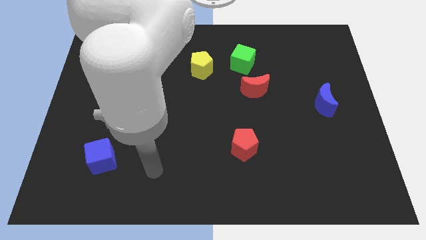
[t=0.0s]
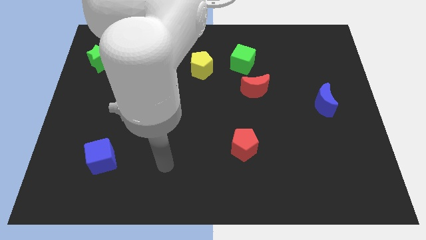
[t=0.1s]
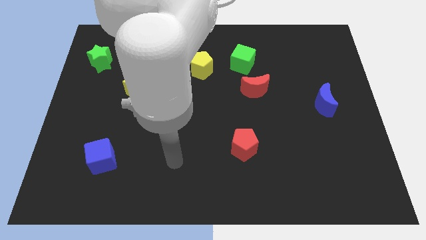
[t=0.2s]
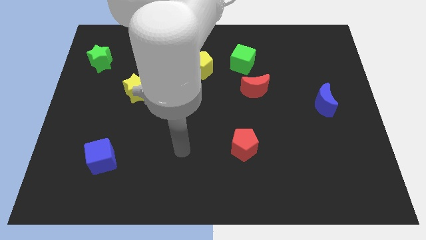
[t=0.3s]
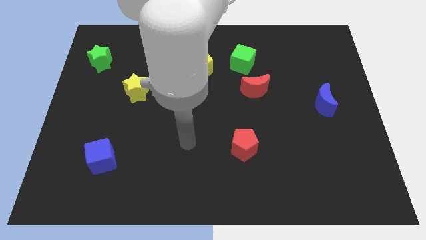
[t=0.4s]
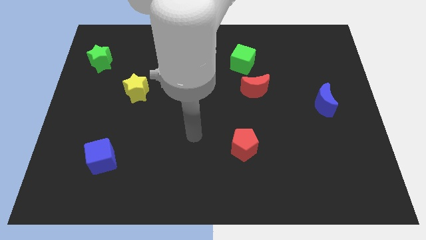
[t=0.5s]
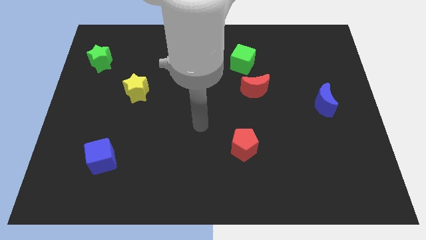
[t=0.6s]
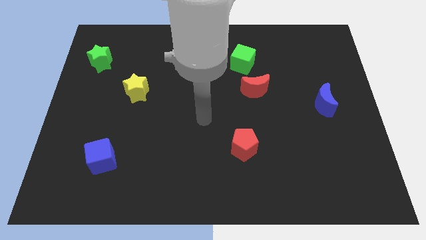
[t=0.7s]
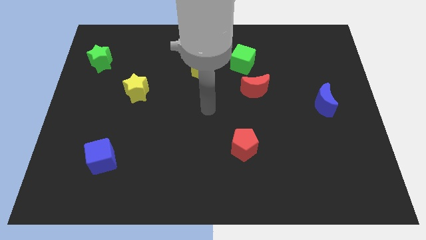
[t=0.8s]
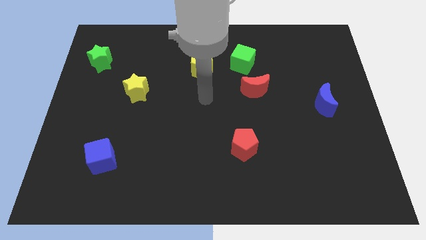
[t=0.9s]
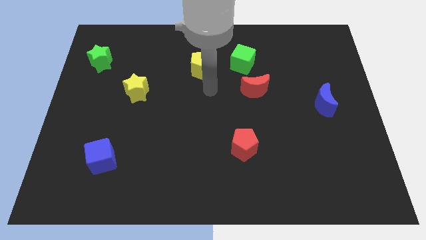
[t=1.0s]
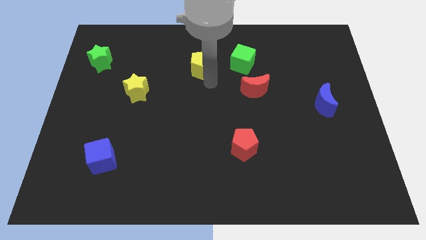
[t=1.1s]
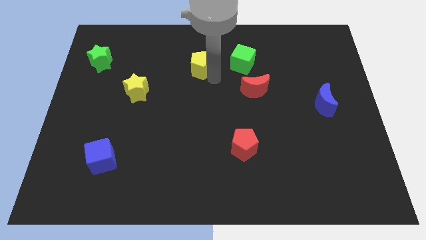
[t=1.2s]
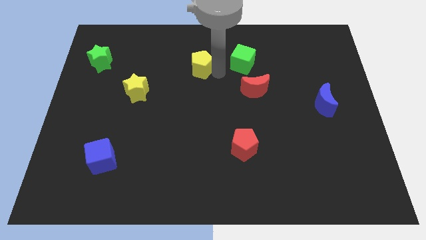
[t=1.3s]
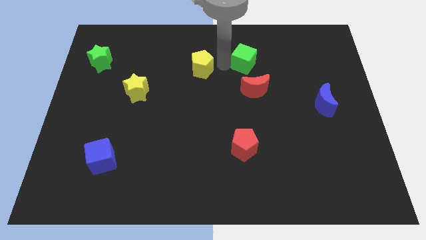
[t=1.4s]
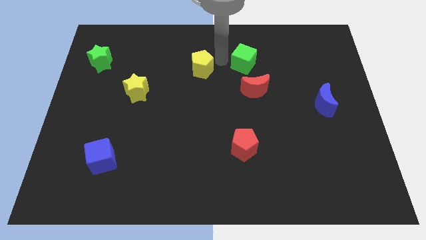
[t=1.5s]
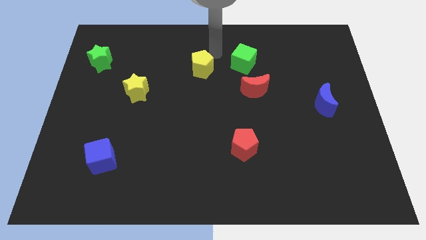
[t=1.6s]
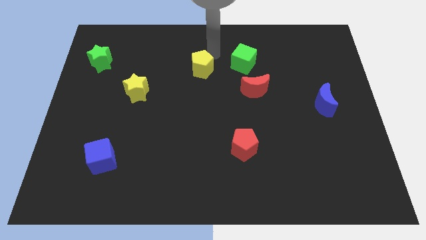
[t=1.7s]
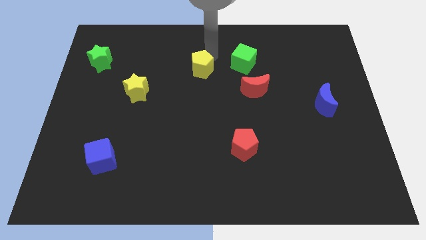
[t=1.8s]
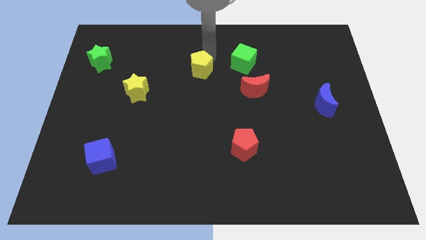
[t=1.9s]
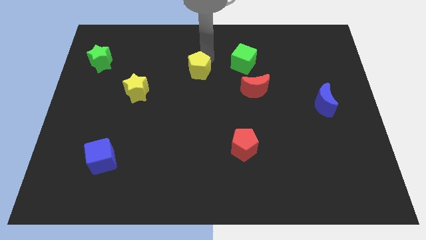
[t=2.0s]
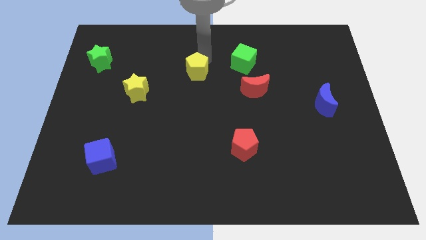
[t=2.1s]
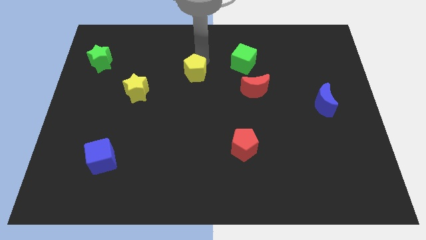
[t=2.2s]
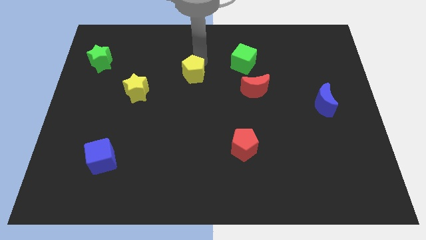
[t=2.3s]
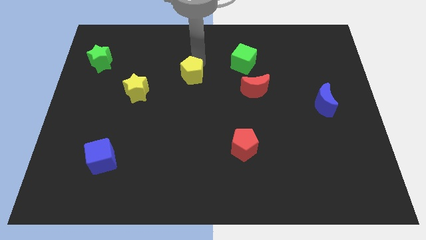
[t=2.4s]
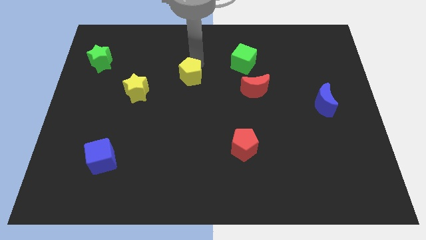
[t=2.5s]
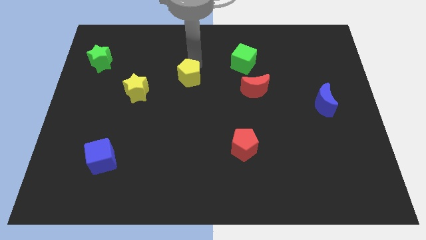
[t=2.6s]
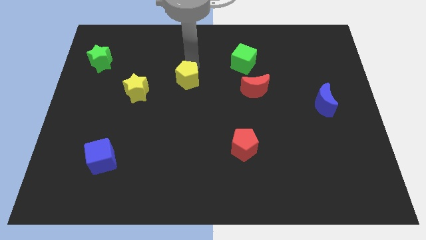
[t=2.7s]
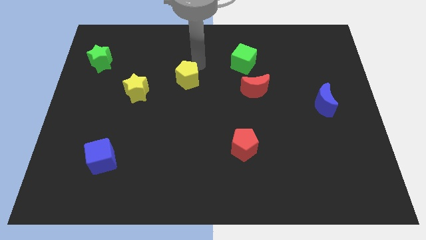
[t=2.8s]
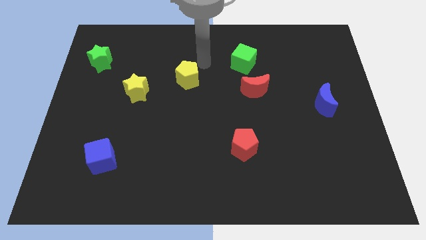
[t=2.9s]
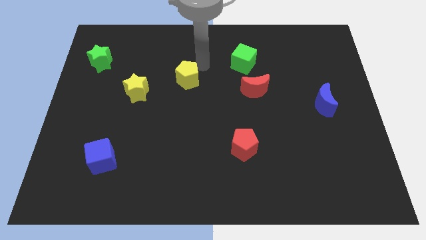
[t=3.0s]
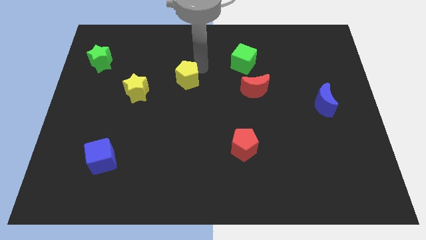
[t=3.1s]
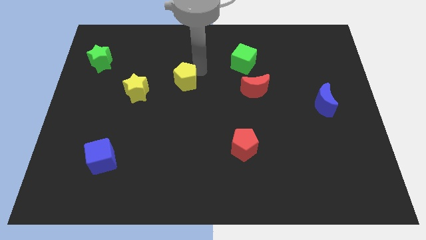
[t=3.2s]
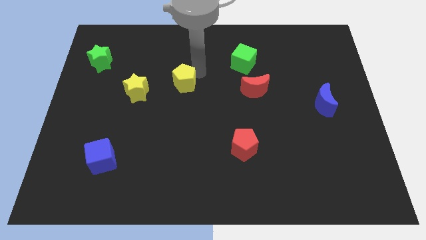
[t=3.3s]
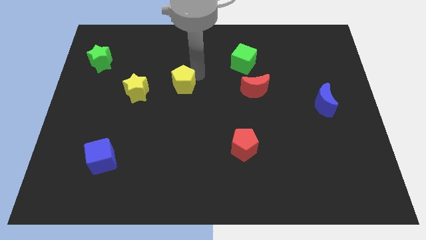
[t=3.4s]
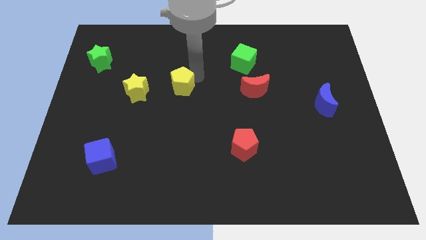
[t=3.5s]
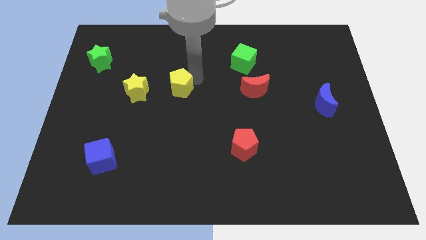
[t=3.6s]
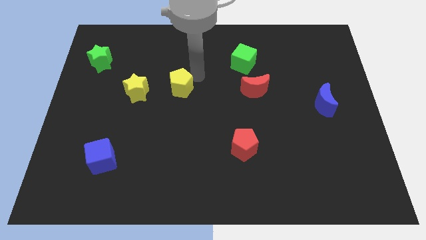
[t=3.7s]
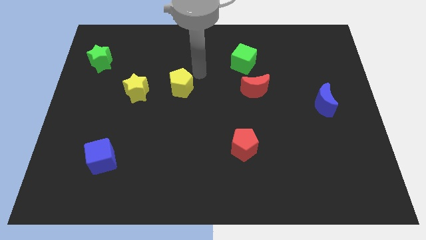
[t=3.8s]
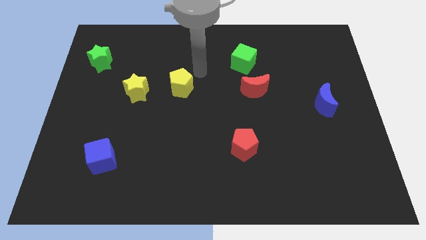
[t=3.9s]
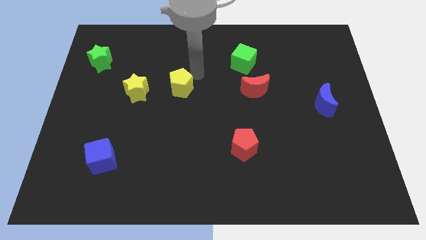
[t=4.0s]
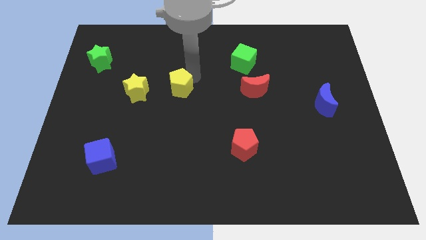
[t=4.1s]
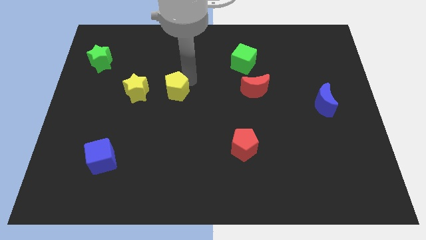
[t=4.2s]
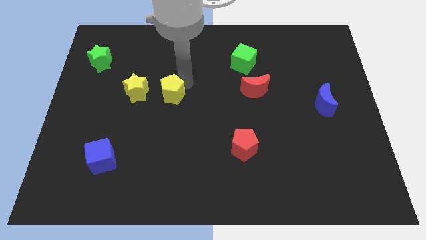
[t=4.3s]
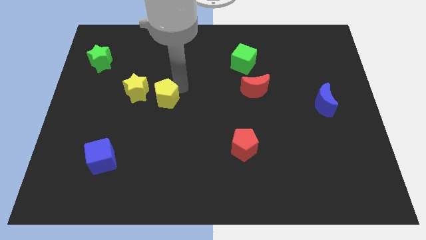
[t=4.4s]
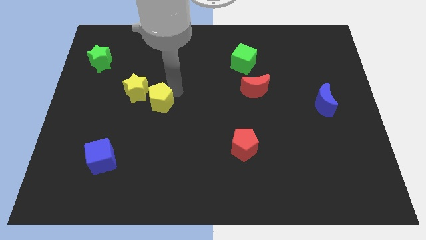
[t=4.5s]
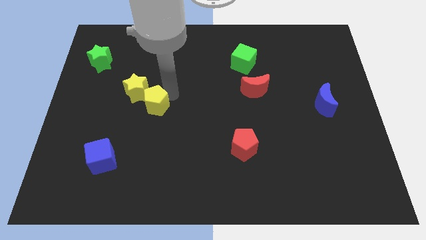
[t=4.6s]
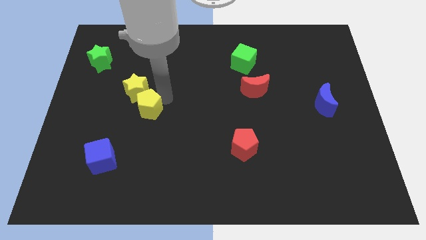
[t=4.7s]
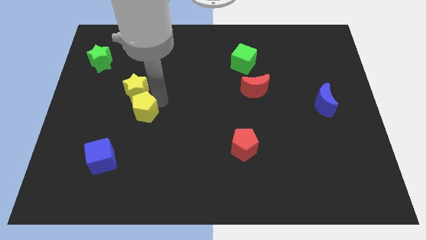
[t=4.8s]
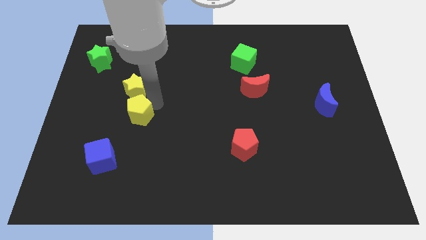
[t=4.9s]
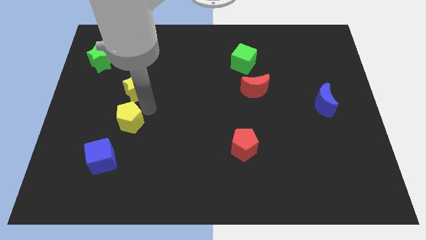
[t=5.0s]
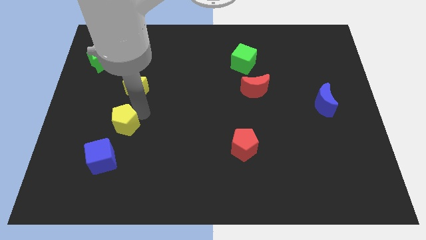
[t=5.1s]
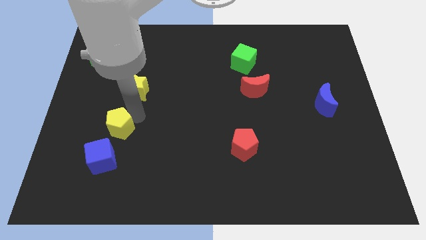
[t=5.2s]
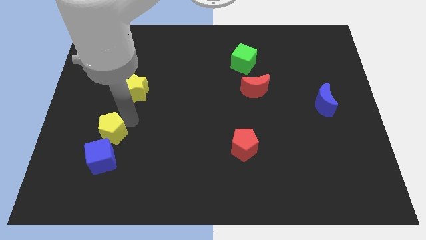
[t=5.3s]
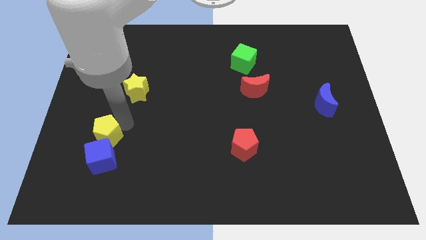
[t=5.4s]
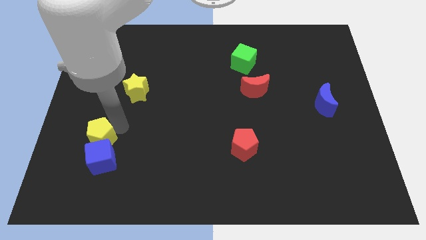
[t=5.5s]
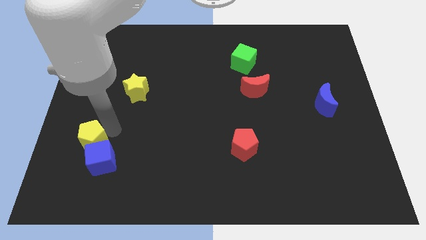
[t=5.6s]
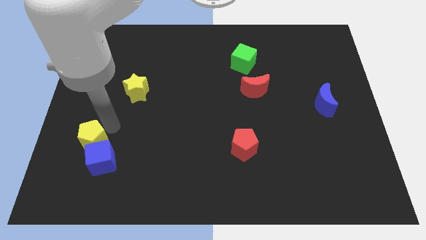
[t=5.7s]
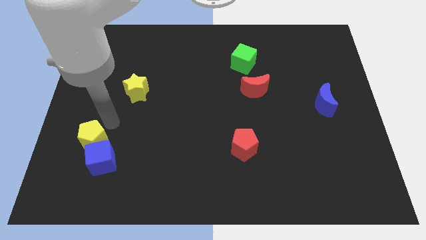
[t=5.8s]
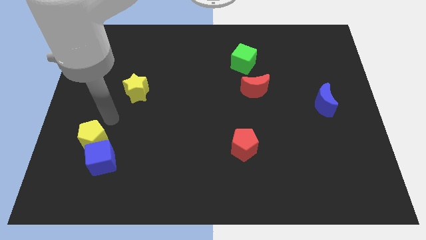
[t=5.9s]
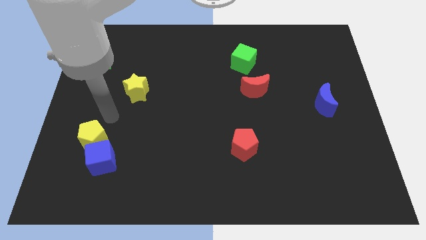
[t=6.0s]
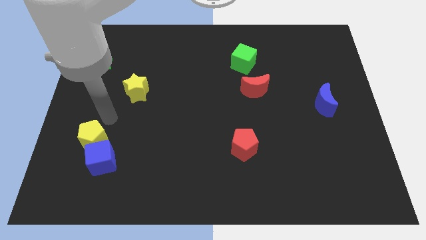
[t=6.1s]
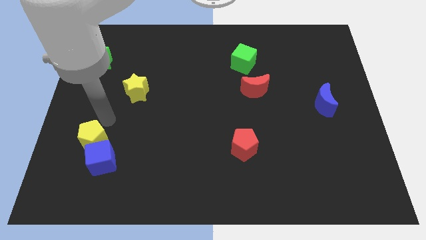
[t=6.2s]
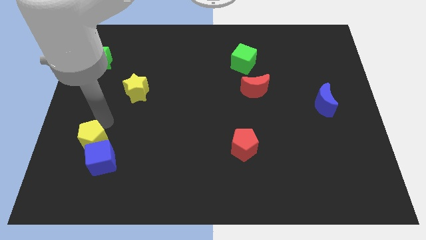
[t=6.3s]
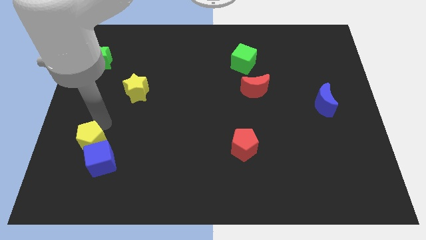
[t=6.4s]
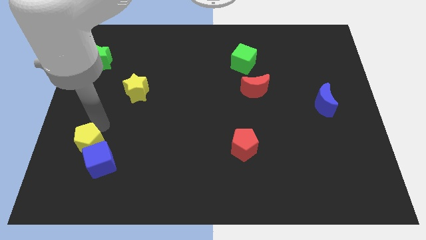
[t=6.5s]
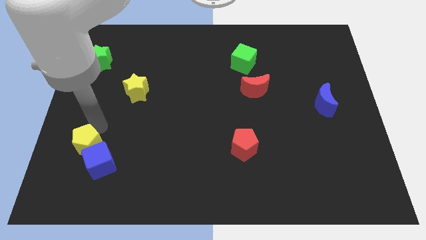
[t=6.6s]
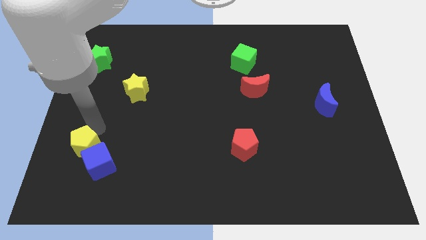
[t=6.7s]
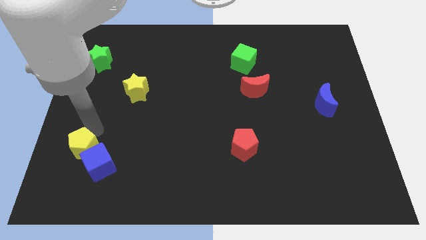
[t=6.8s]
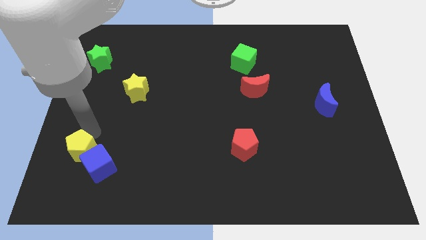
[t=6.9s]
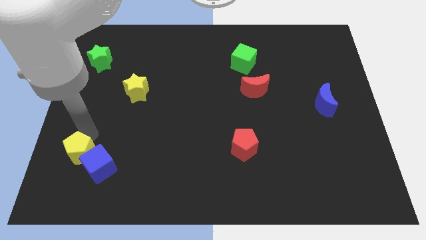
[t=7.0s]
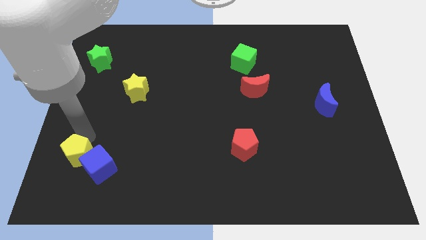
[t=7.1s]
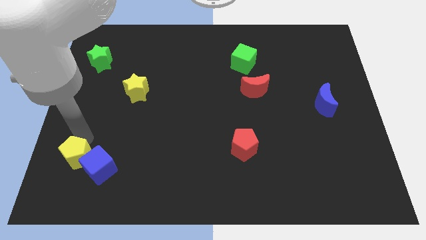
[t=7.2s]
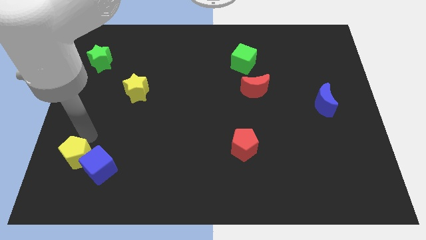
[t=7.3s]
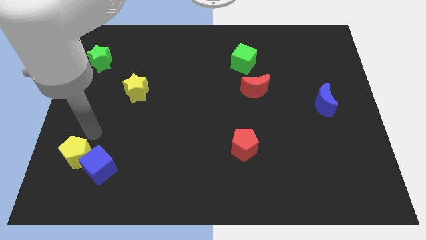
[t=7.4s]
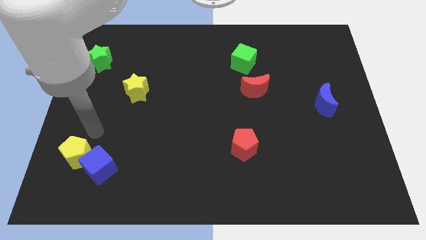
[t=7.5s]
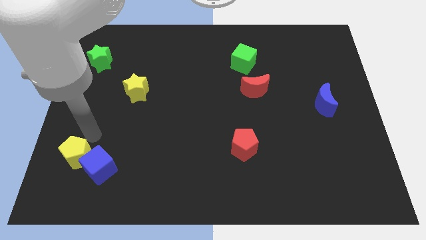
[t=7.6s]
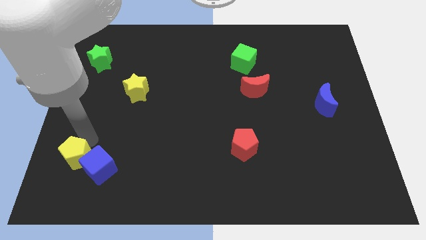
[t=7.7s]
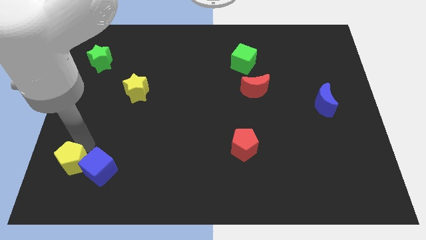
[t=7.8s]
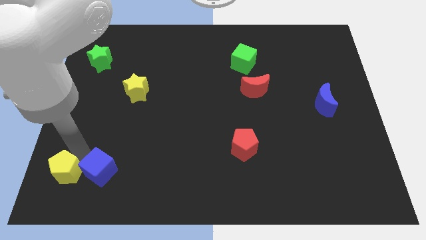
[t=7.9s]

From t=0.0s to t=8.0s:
put the yellow pentagon to the bottom left
